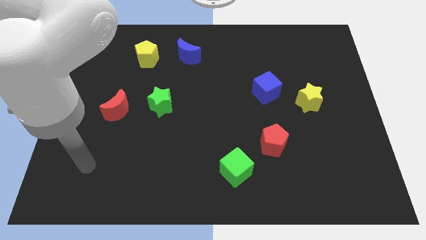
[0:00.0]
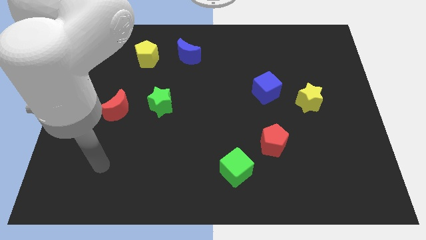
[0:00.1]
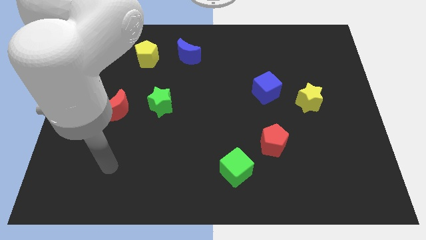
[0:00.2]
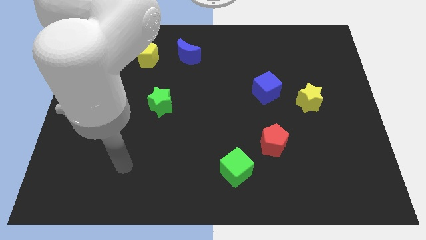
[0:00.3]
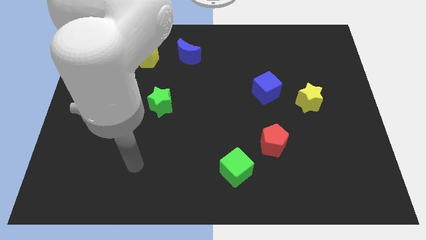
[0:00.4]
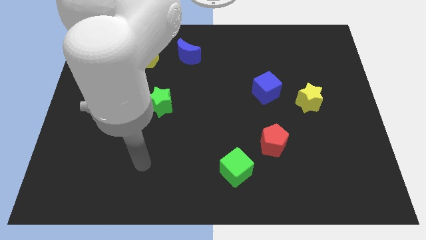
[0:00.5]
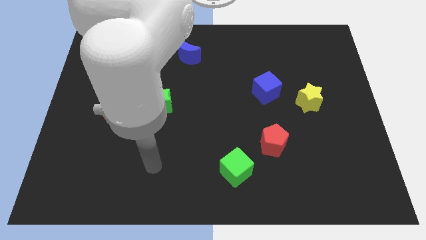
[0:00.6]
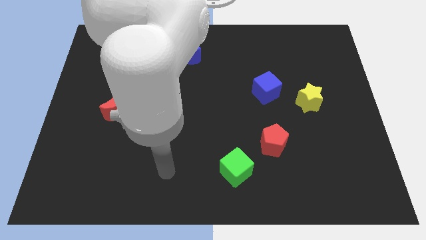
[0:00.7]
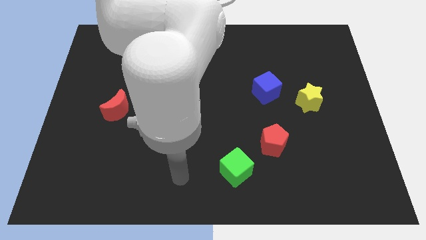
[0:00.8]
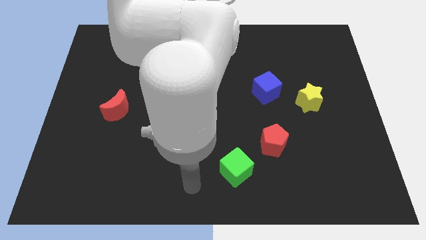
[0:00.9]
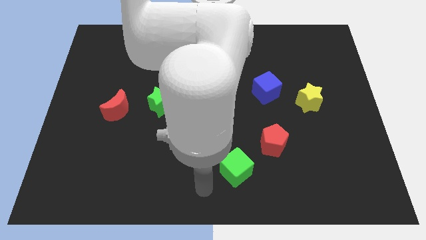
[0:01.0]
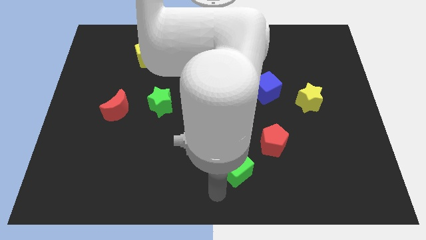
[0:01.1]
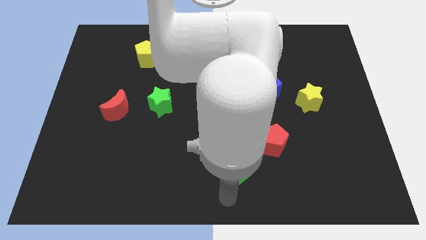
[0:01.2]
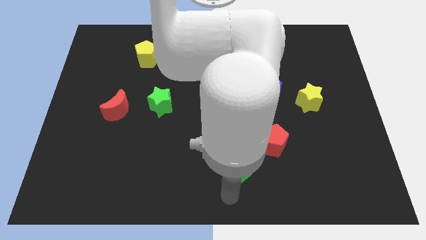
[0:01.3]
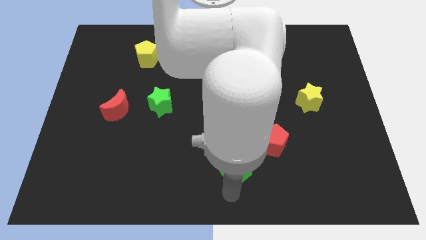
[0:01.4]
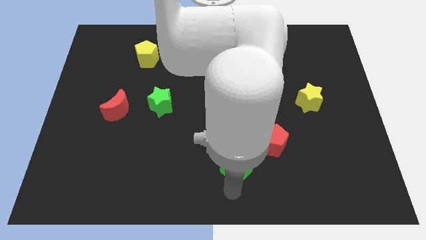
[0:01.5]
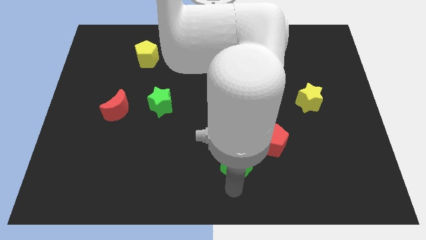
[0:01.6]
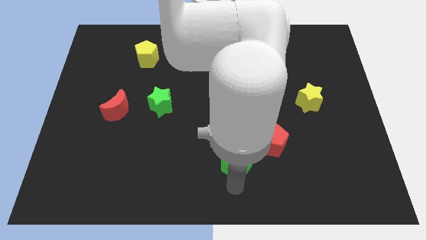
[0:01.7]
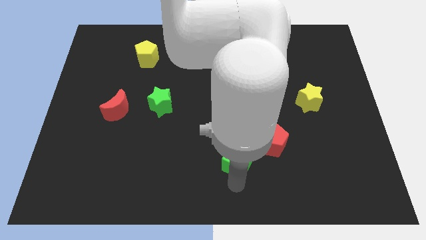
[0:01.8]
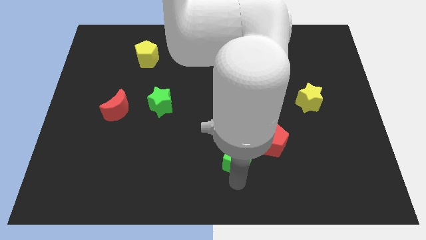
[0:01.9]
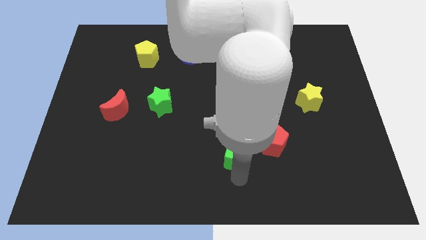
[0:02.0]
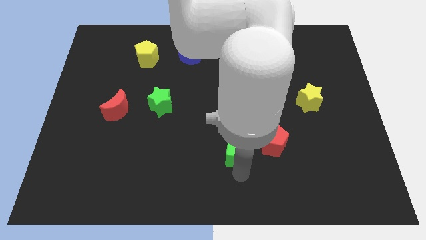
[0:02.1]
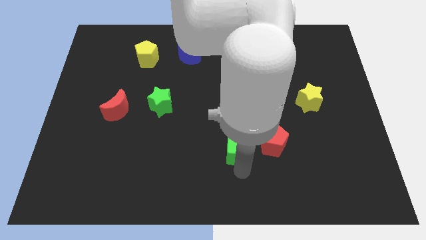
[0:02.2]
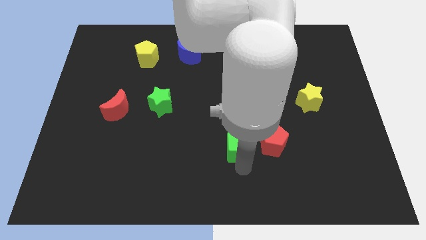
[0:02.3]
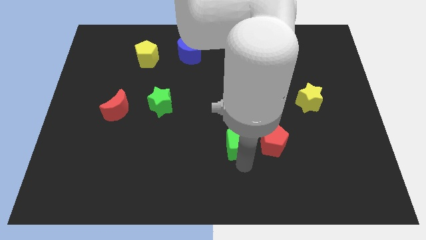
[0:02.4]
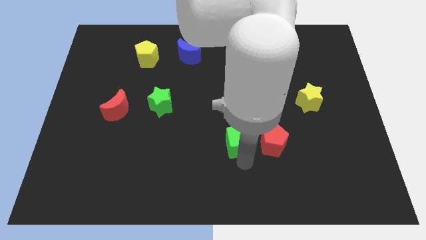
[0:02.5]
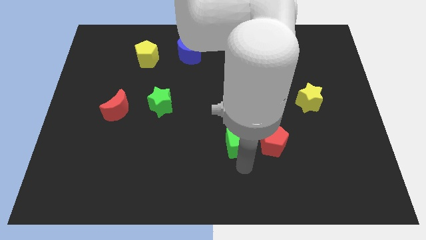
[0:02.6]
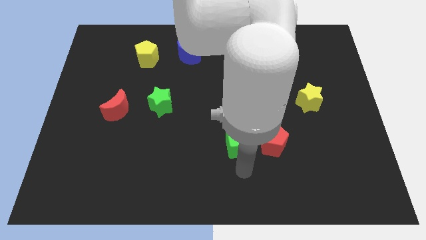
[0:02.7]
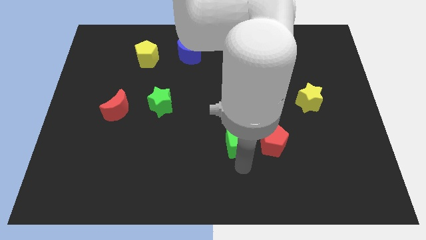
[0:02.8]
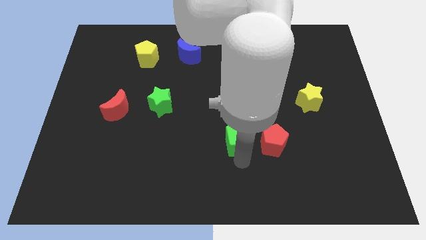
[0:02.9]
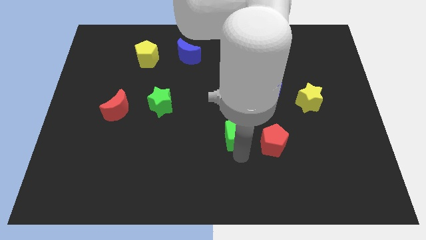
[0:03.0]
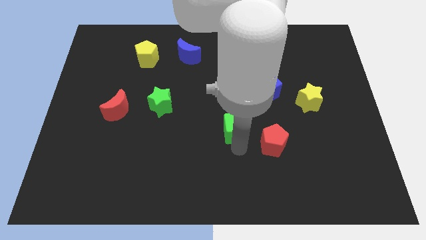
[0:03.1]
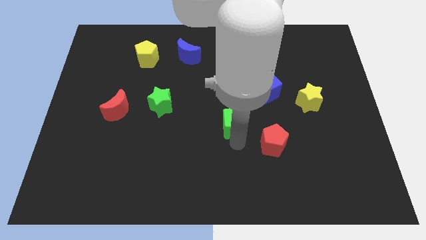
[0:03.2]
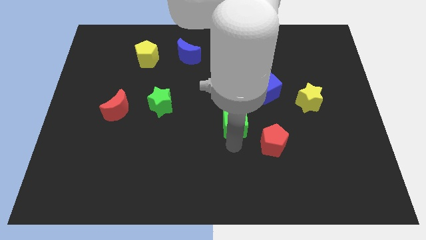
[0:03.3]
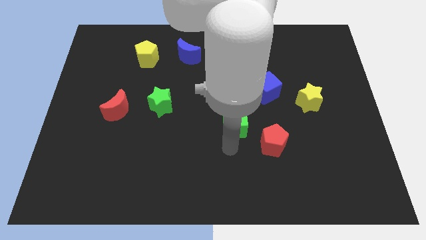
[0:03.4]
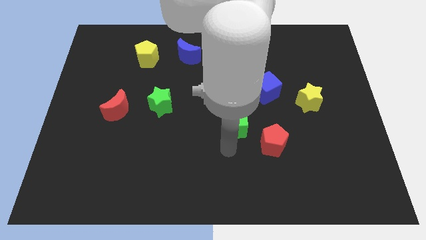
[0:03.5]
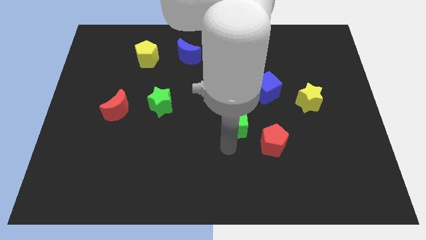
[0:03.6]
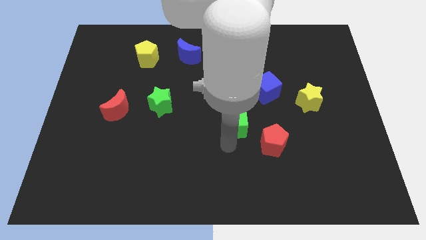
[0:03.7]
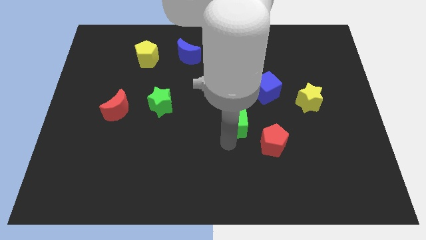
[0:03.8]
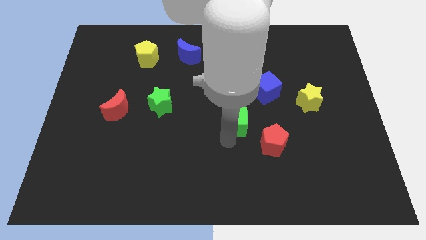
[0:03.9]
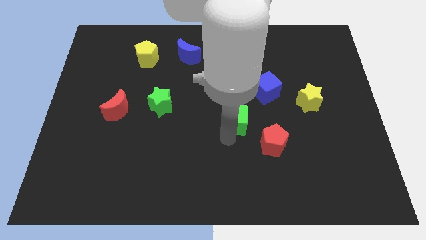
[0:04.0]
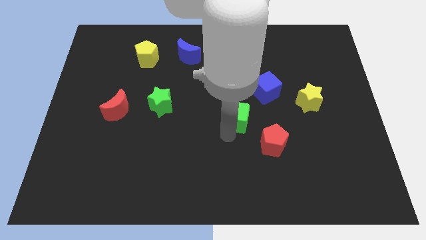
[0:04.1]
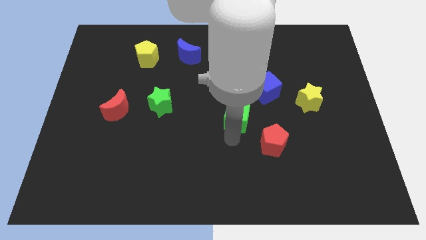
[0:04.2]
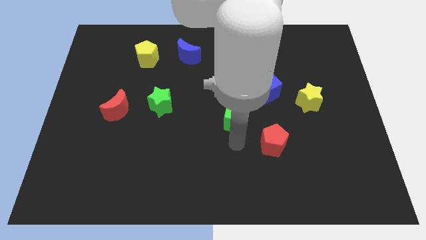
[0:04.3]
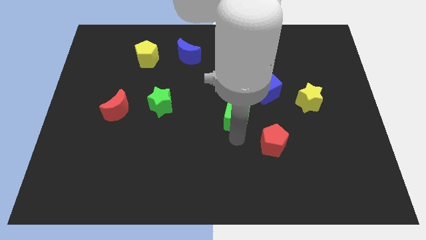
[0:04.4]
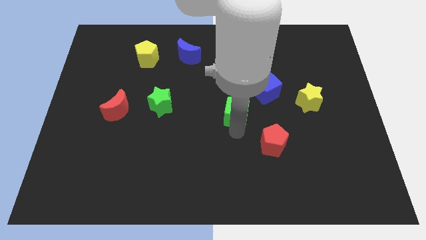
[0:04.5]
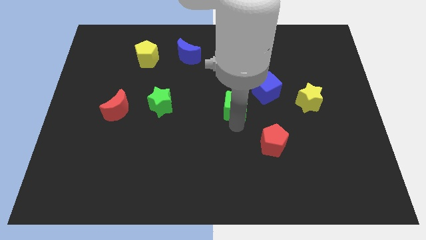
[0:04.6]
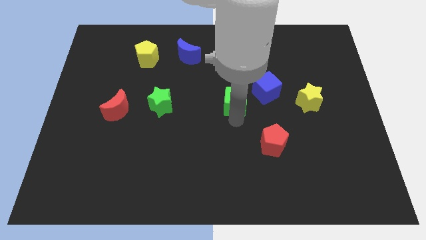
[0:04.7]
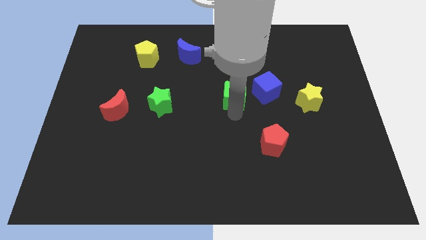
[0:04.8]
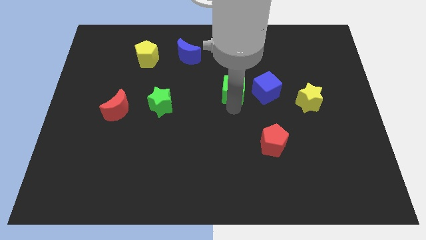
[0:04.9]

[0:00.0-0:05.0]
slide the green cube upwards

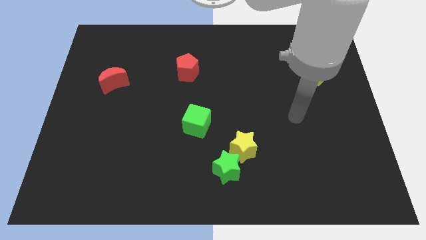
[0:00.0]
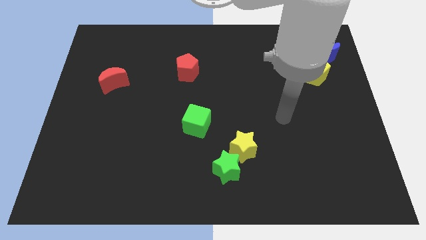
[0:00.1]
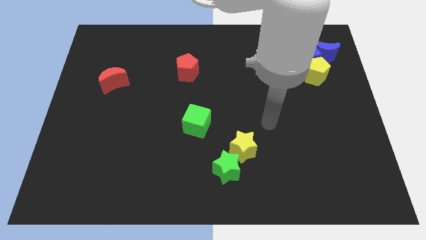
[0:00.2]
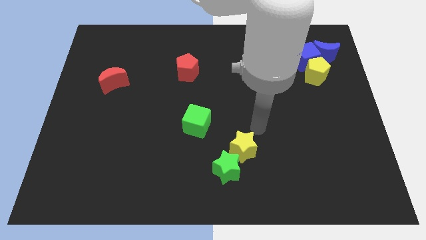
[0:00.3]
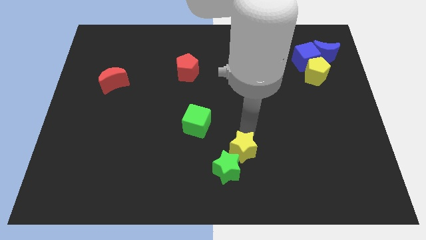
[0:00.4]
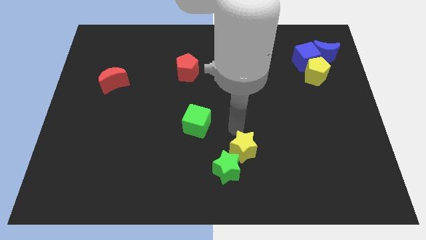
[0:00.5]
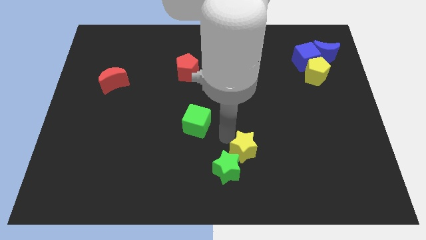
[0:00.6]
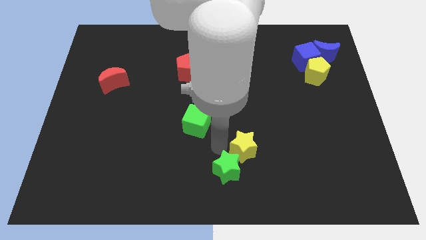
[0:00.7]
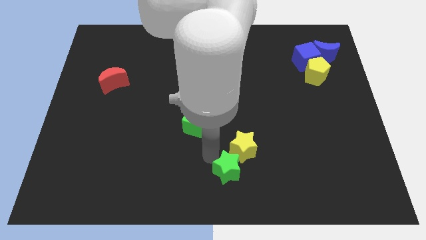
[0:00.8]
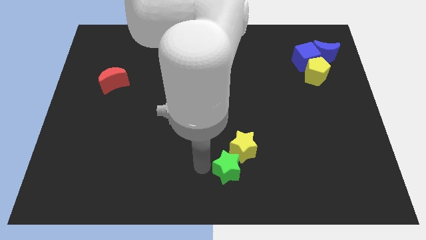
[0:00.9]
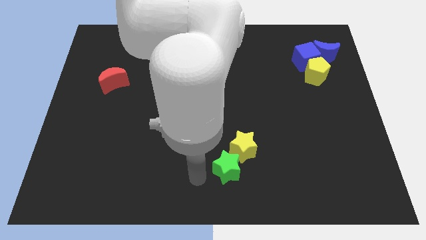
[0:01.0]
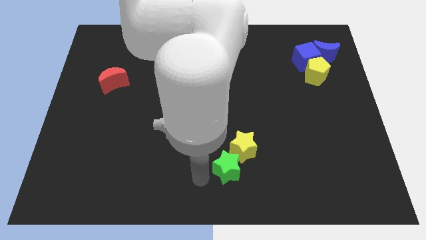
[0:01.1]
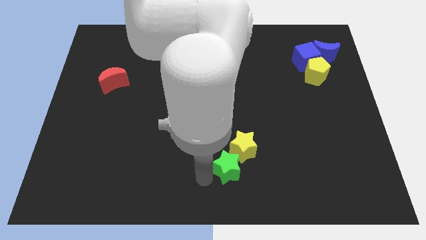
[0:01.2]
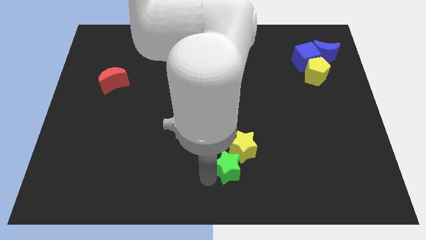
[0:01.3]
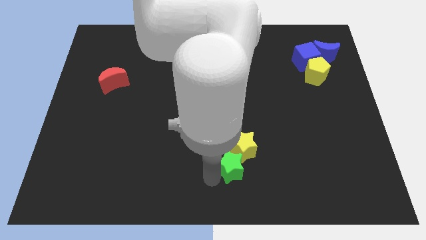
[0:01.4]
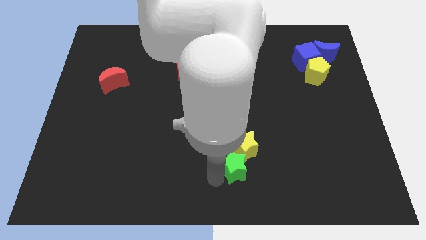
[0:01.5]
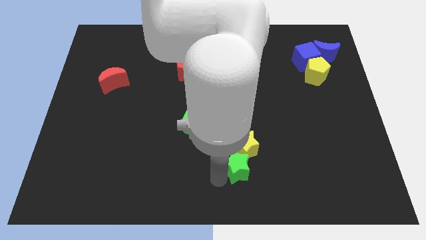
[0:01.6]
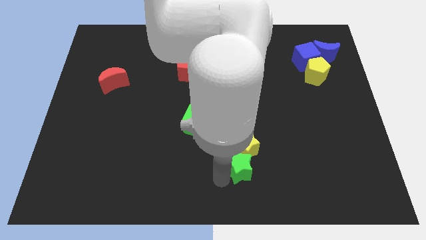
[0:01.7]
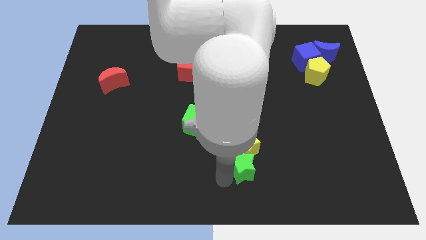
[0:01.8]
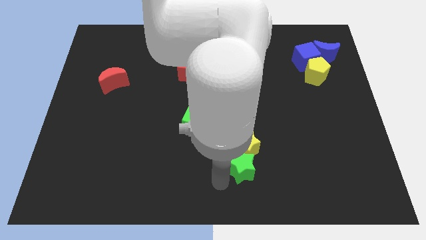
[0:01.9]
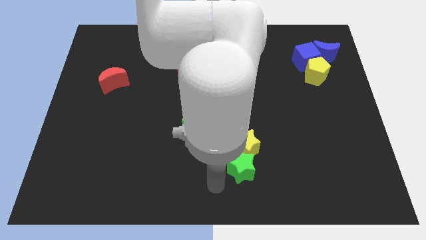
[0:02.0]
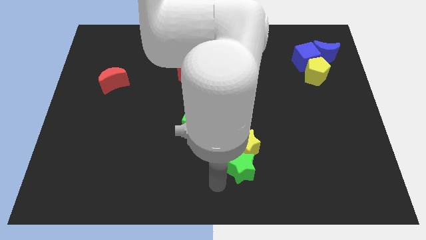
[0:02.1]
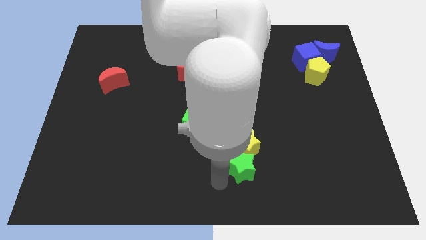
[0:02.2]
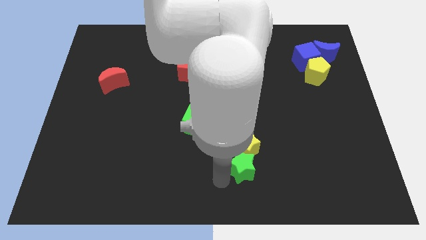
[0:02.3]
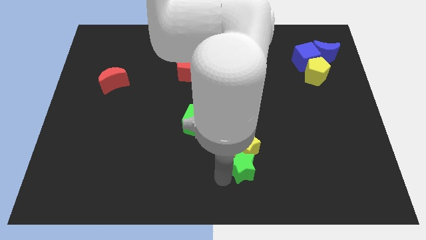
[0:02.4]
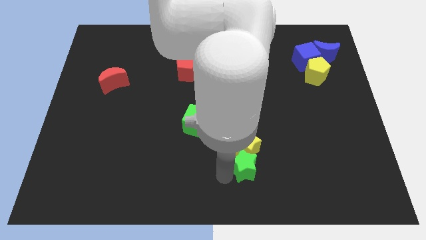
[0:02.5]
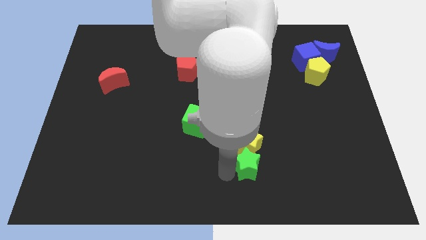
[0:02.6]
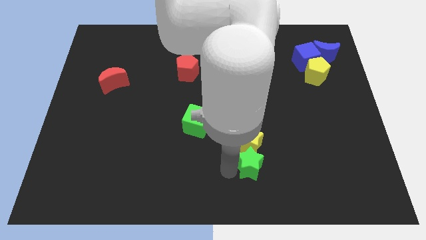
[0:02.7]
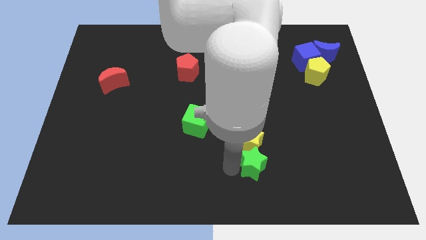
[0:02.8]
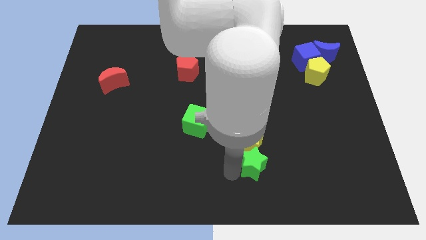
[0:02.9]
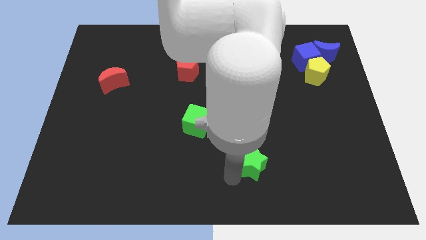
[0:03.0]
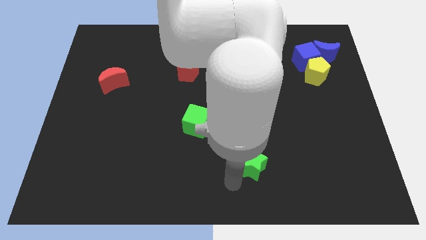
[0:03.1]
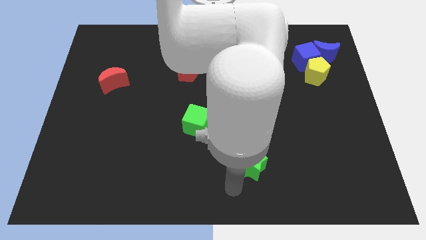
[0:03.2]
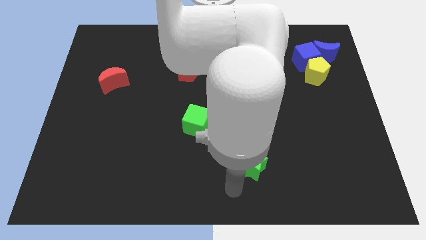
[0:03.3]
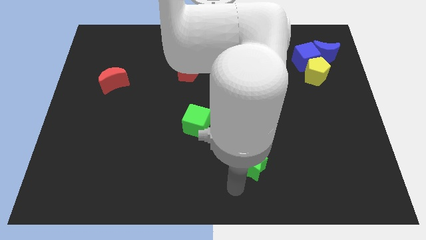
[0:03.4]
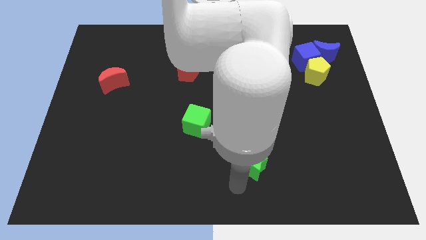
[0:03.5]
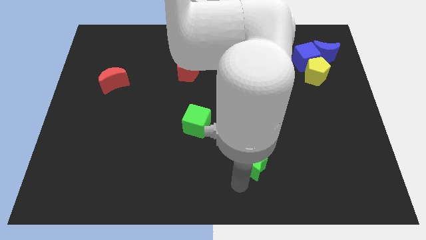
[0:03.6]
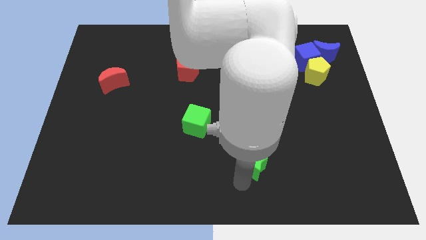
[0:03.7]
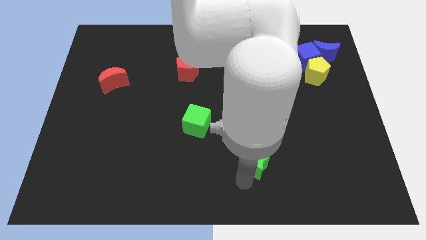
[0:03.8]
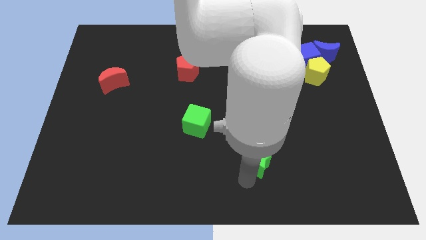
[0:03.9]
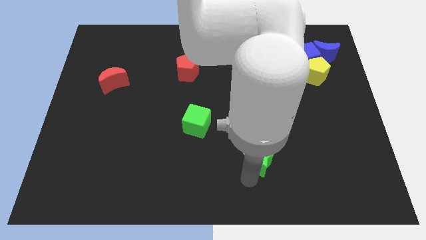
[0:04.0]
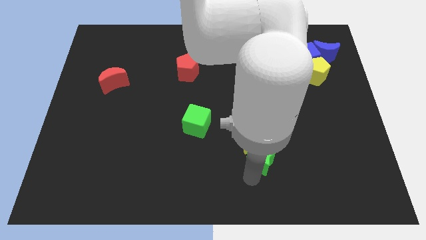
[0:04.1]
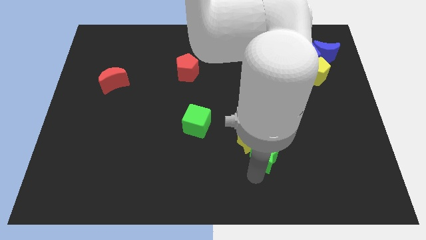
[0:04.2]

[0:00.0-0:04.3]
slide the green star upwards and then right somewhat
